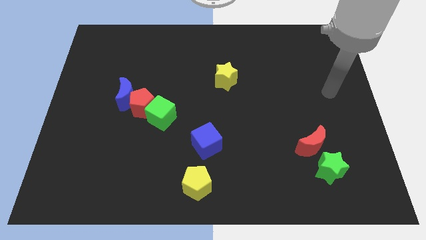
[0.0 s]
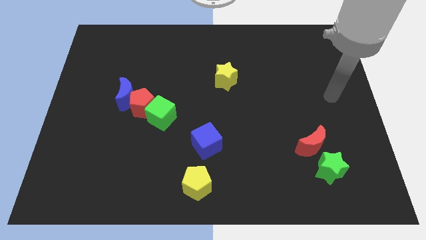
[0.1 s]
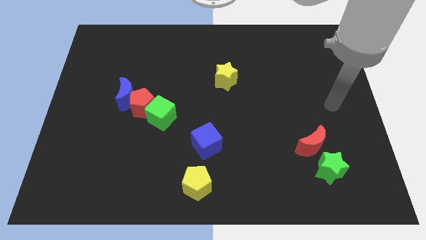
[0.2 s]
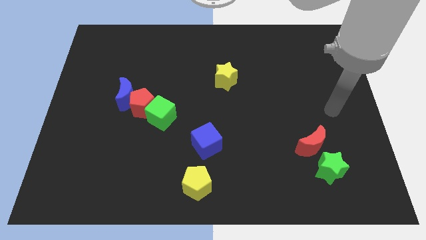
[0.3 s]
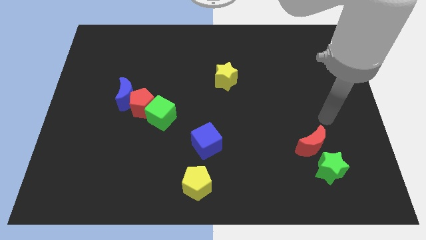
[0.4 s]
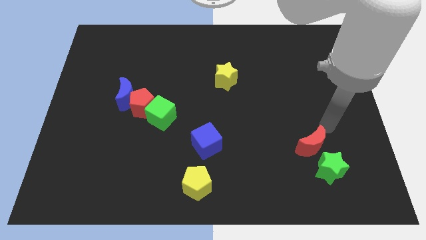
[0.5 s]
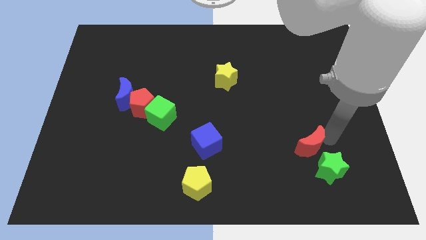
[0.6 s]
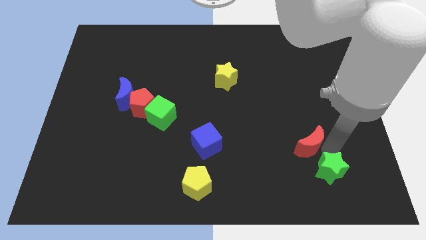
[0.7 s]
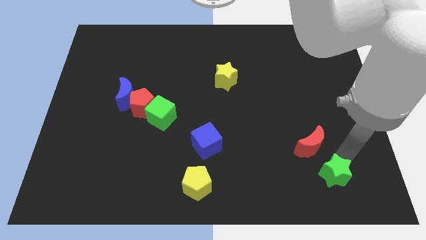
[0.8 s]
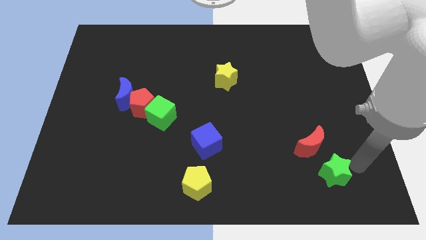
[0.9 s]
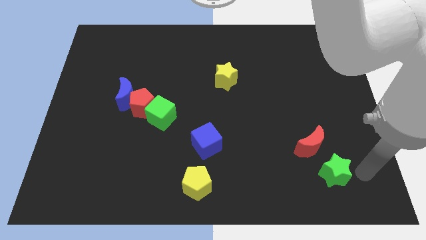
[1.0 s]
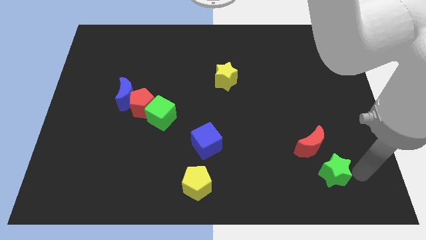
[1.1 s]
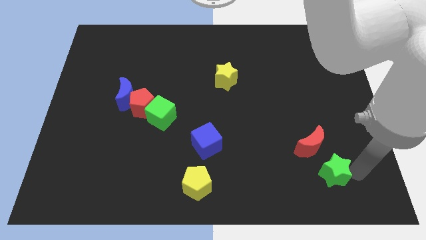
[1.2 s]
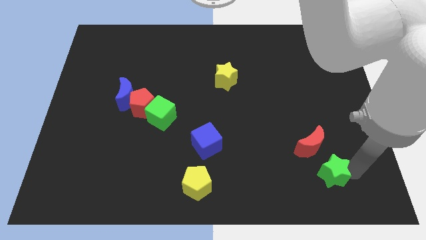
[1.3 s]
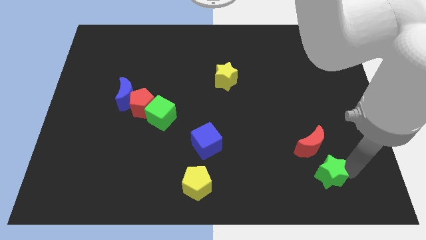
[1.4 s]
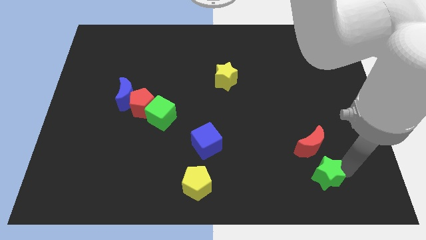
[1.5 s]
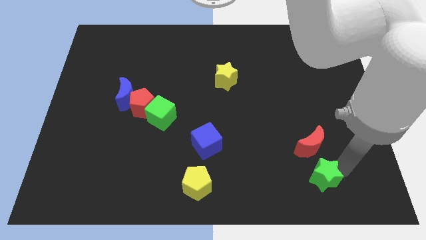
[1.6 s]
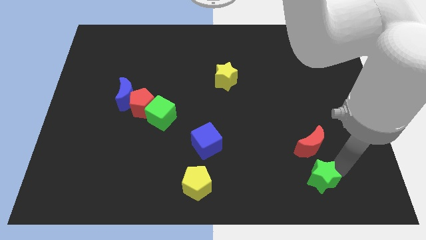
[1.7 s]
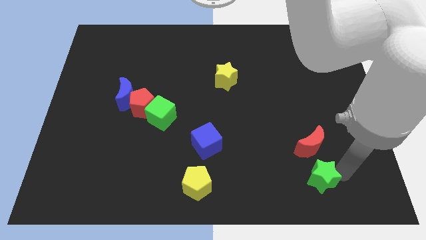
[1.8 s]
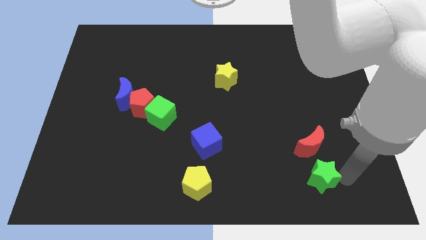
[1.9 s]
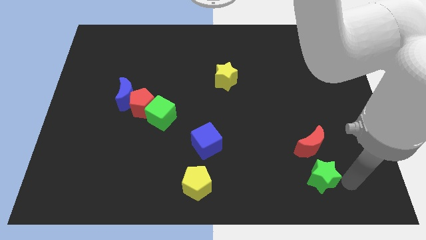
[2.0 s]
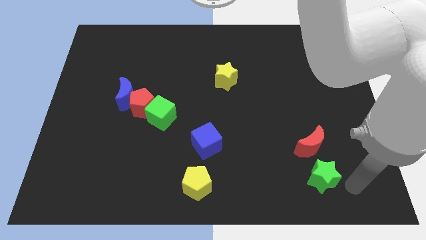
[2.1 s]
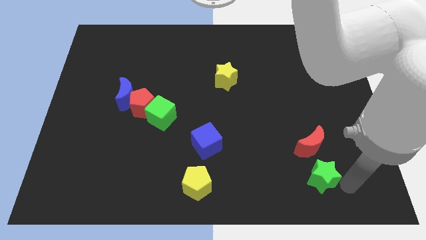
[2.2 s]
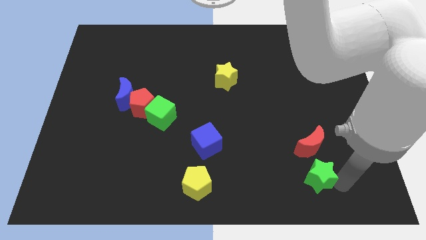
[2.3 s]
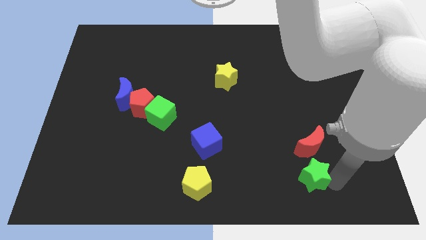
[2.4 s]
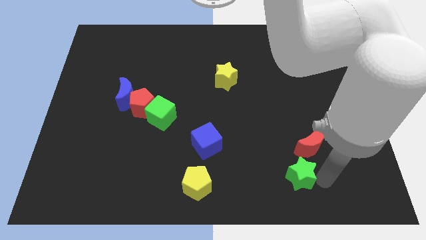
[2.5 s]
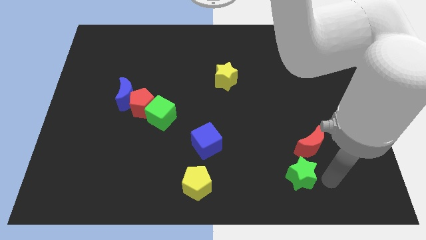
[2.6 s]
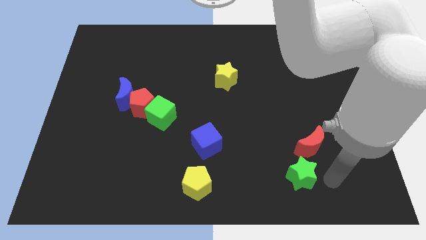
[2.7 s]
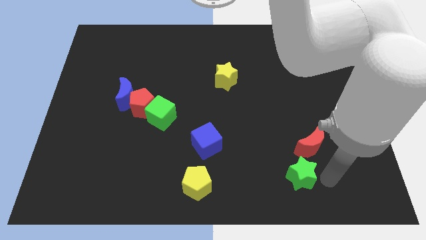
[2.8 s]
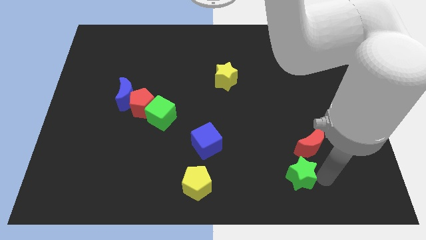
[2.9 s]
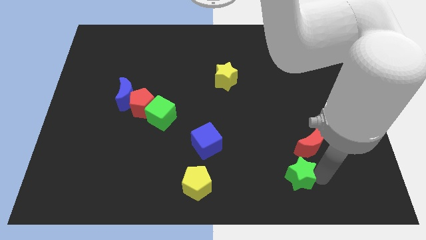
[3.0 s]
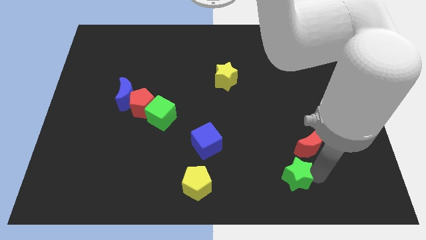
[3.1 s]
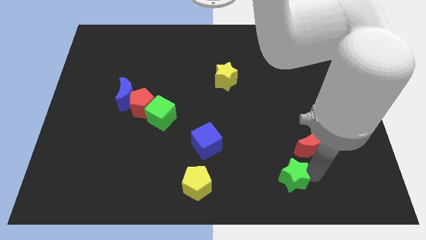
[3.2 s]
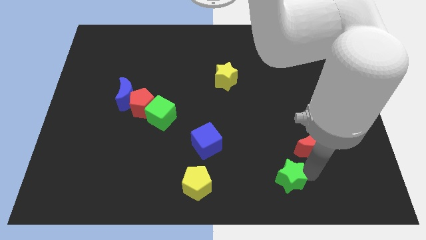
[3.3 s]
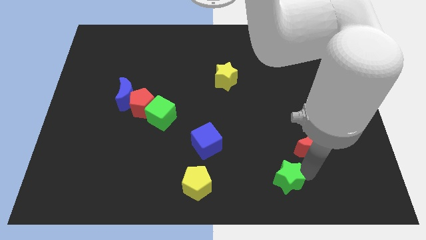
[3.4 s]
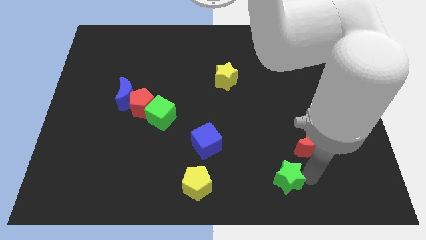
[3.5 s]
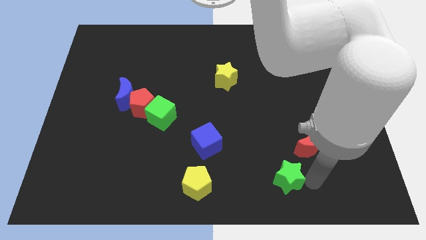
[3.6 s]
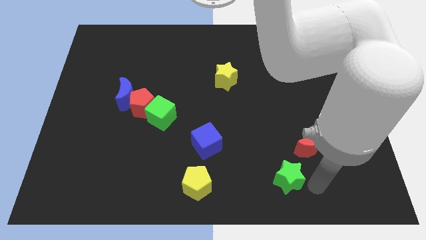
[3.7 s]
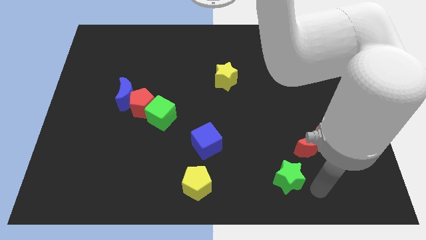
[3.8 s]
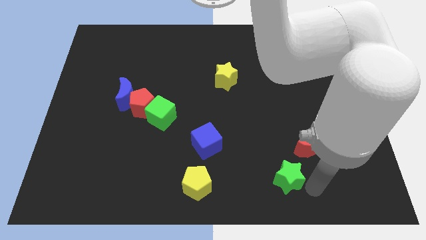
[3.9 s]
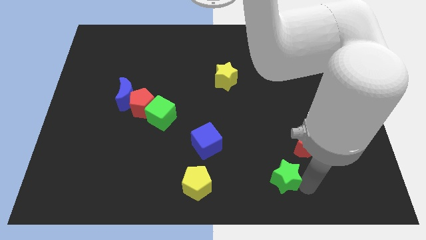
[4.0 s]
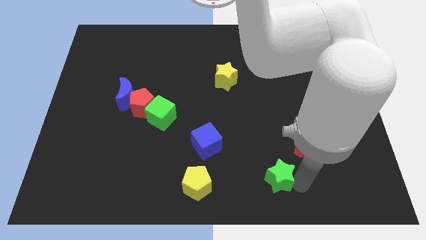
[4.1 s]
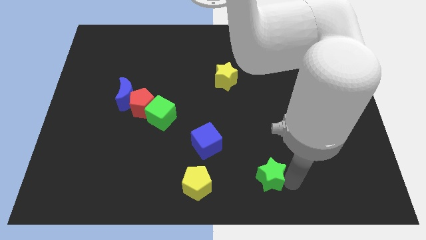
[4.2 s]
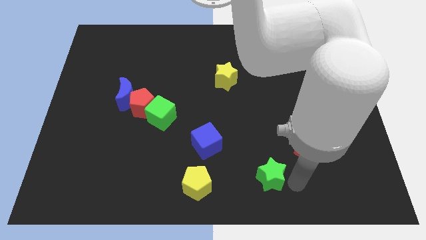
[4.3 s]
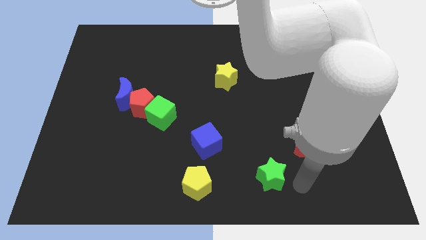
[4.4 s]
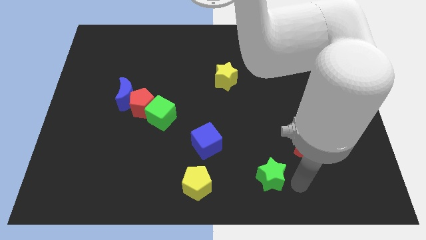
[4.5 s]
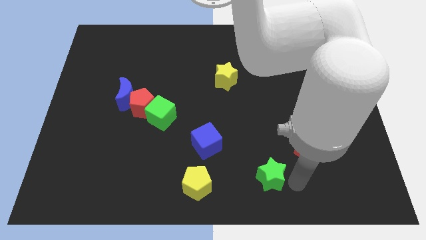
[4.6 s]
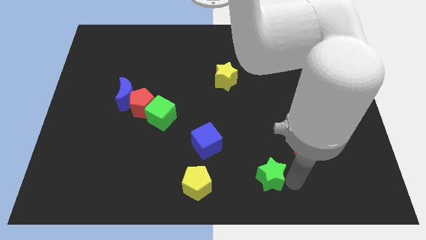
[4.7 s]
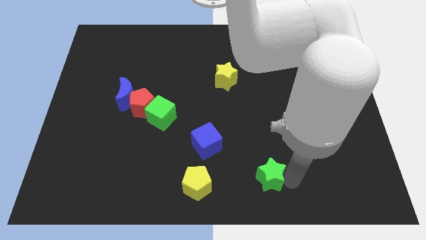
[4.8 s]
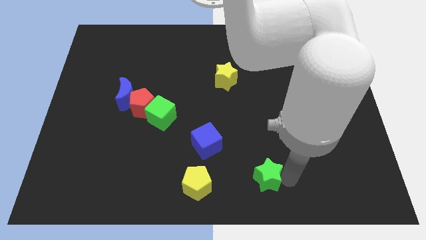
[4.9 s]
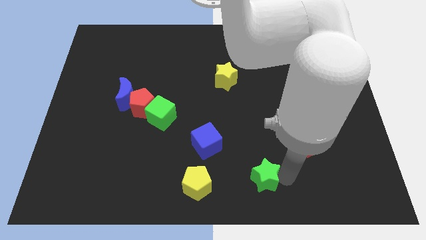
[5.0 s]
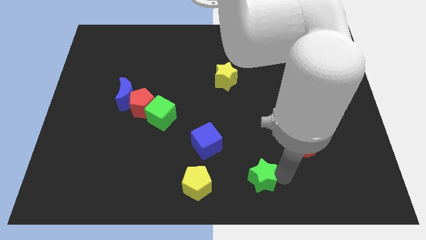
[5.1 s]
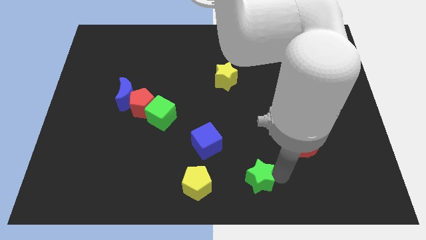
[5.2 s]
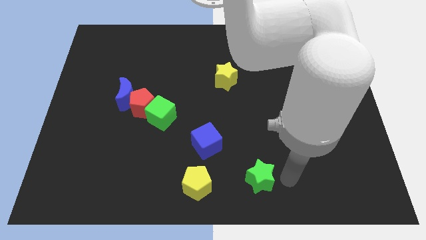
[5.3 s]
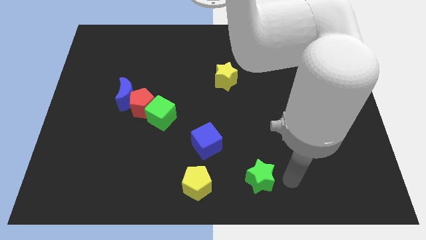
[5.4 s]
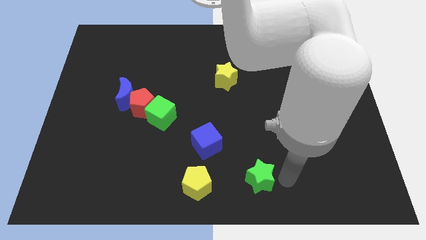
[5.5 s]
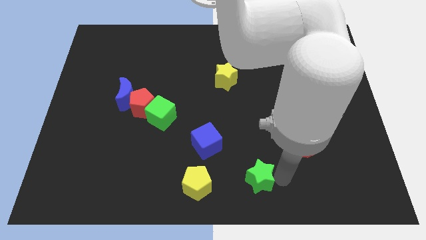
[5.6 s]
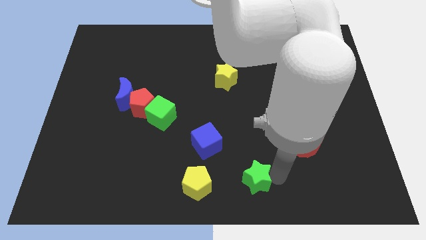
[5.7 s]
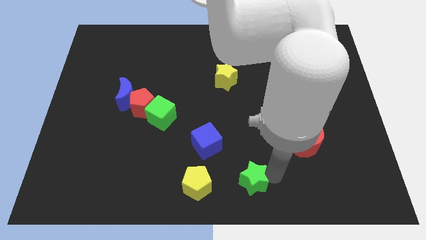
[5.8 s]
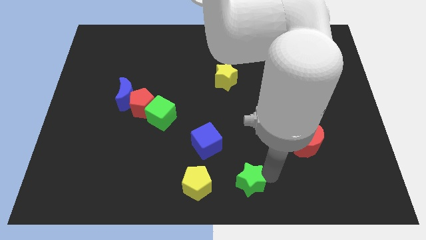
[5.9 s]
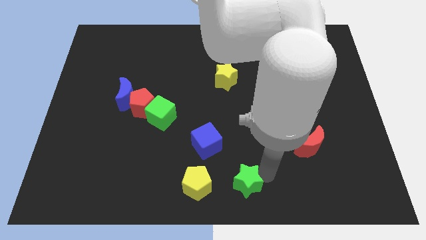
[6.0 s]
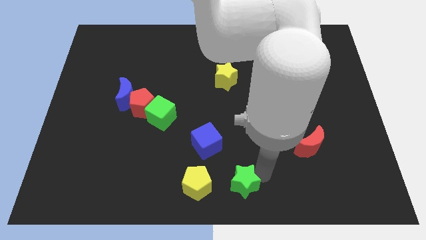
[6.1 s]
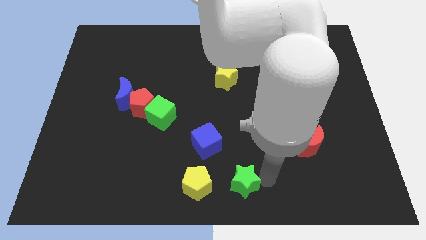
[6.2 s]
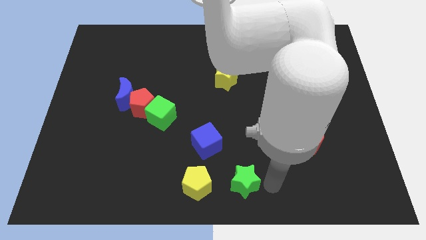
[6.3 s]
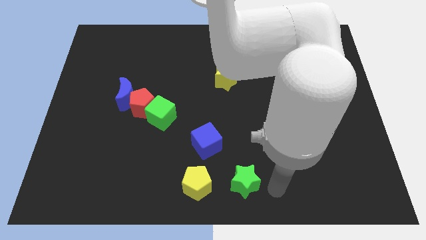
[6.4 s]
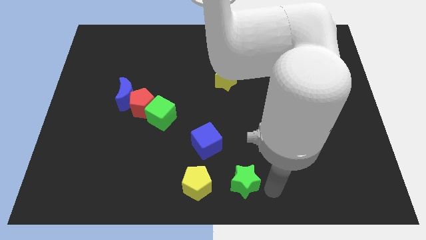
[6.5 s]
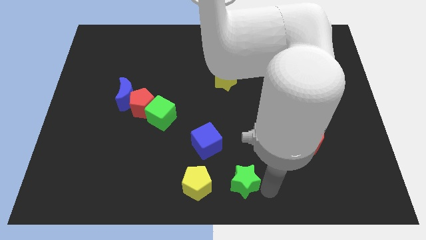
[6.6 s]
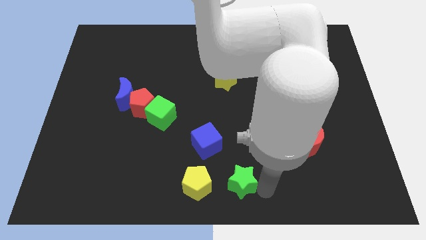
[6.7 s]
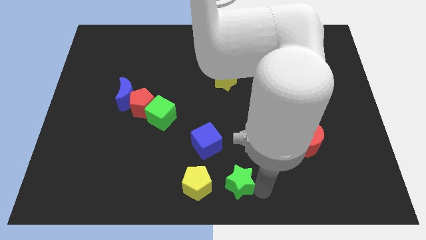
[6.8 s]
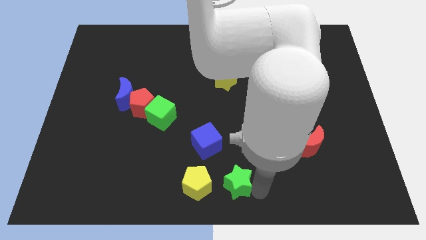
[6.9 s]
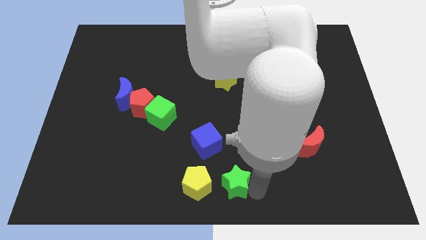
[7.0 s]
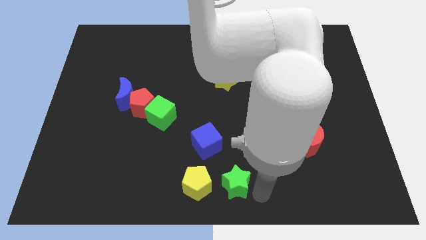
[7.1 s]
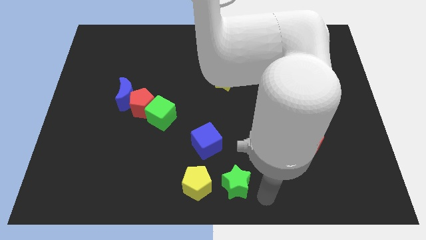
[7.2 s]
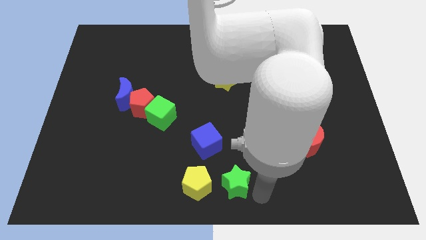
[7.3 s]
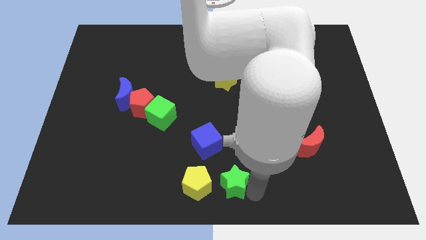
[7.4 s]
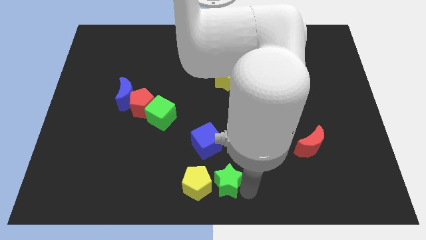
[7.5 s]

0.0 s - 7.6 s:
push the green star next to the yellow pentagon
